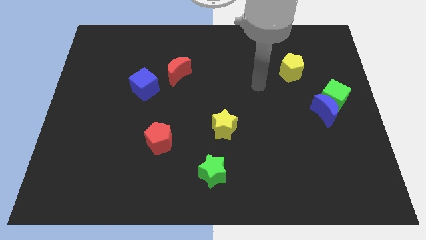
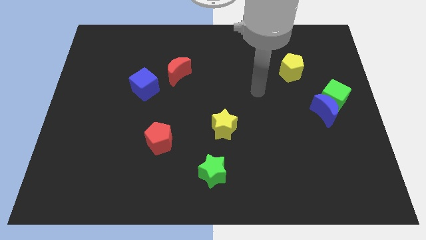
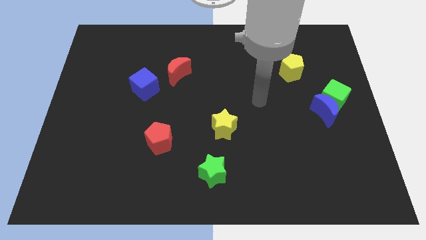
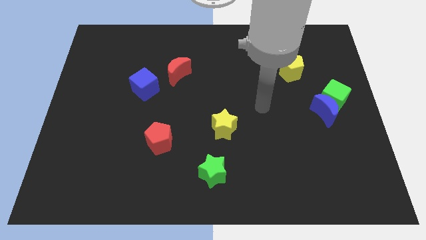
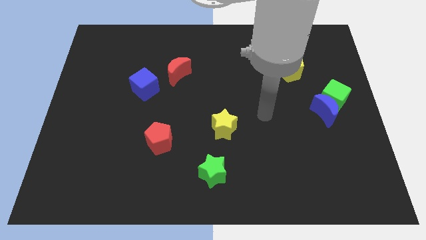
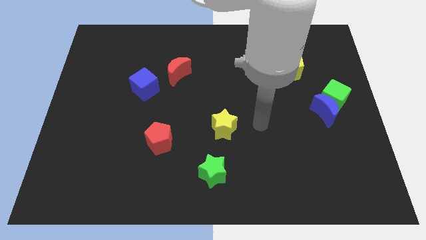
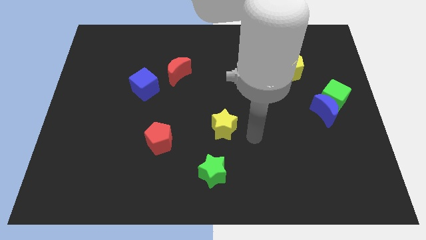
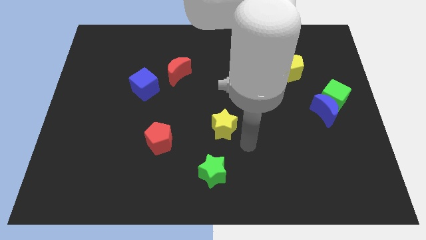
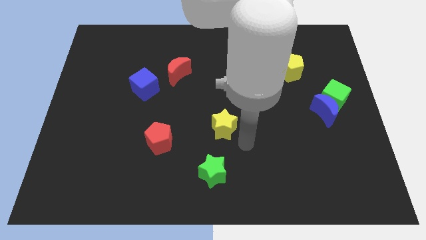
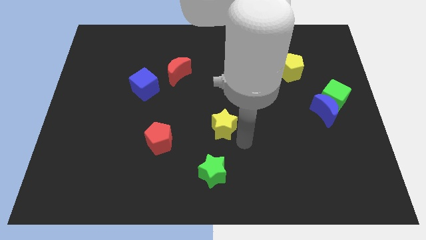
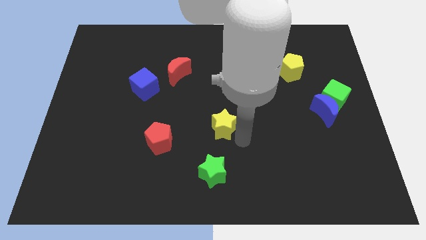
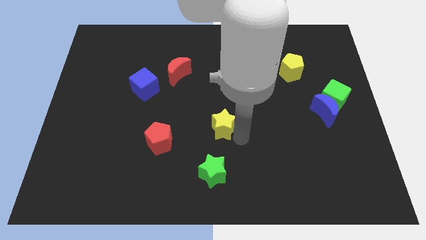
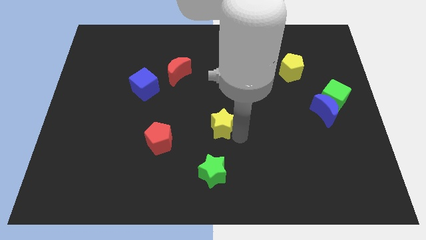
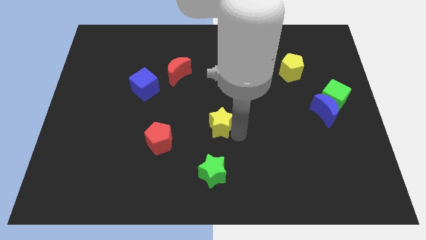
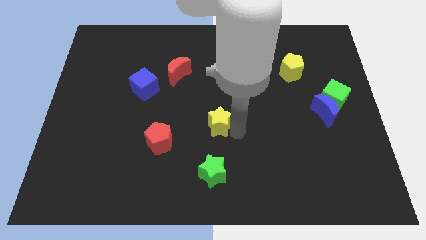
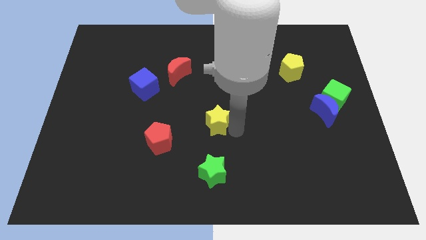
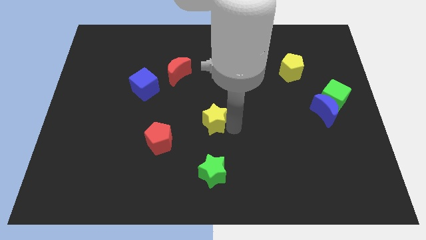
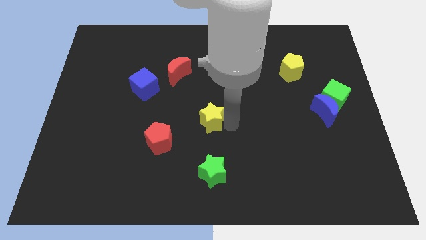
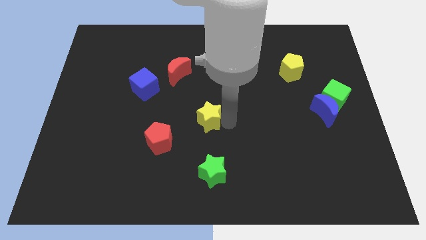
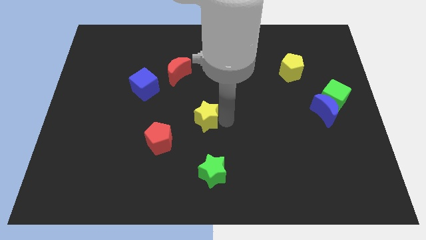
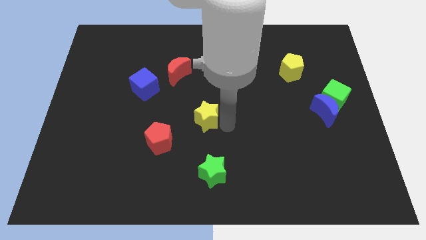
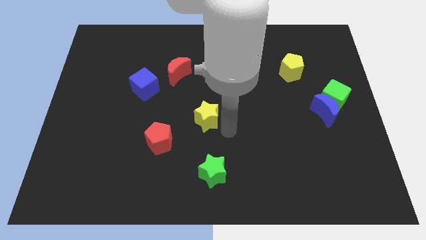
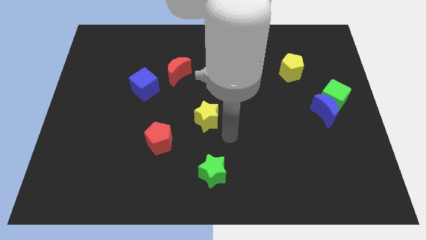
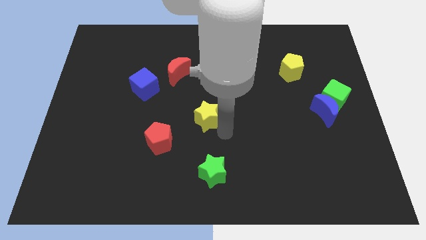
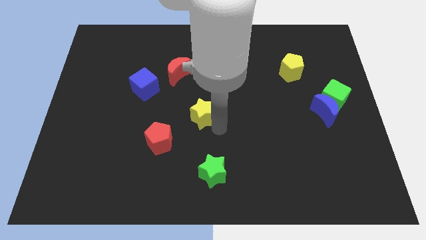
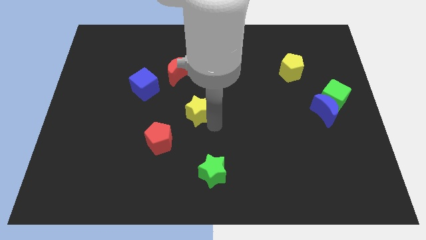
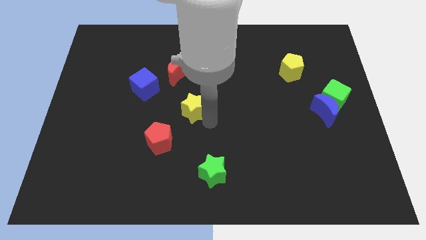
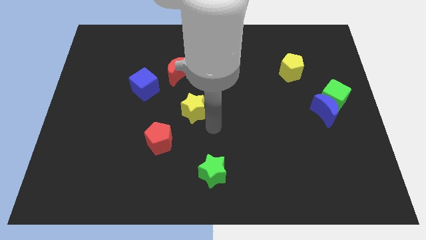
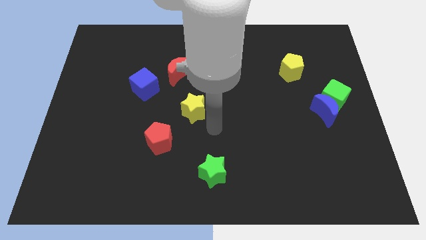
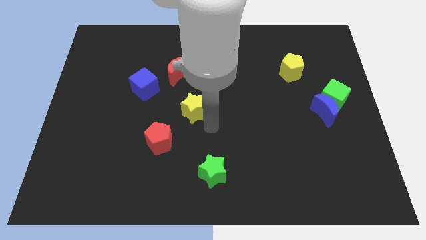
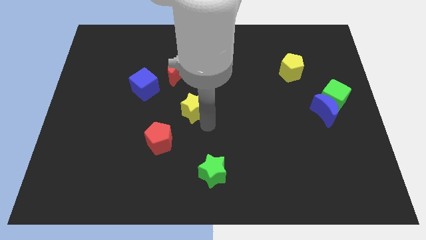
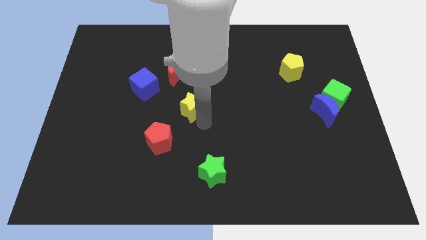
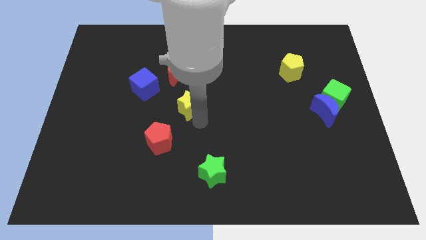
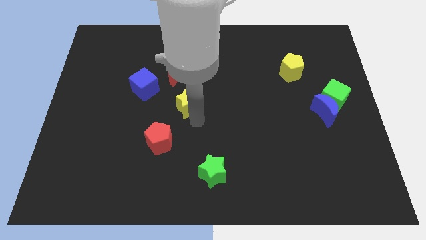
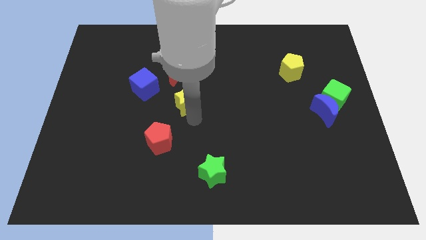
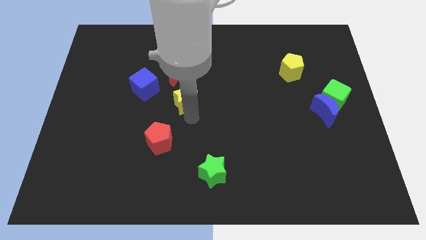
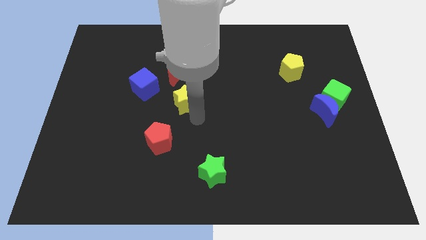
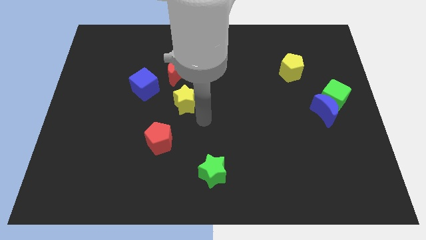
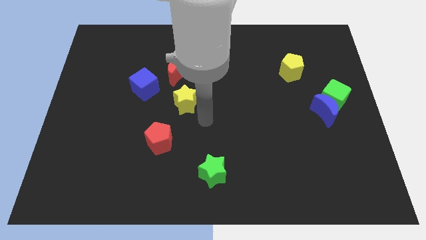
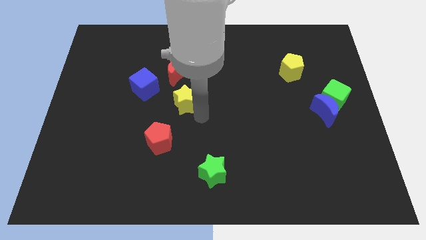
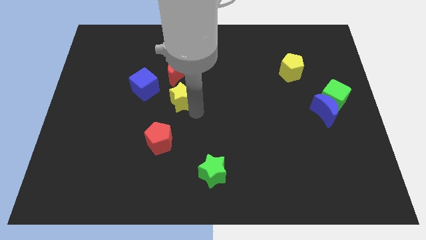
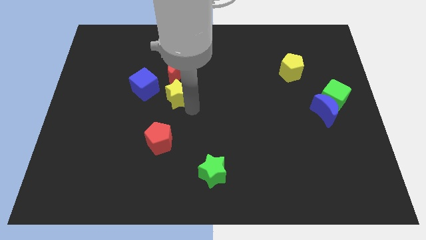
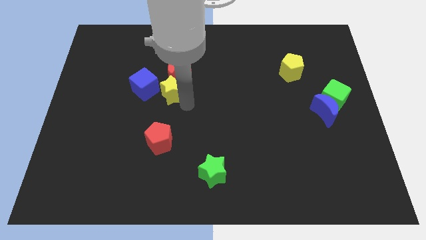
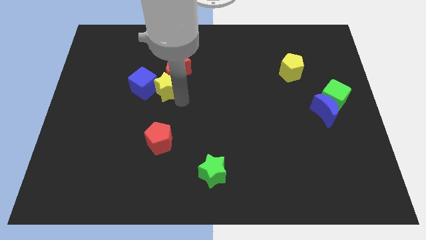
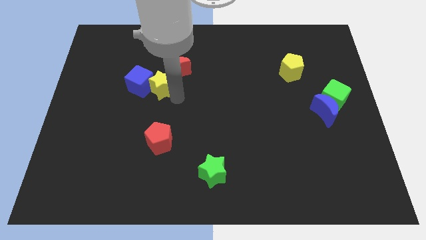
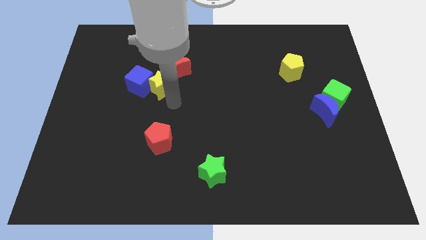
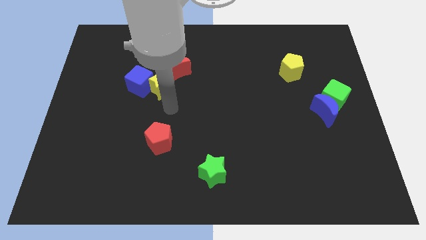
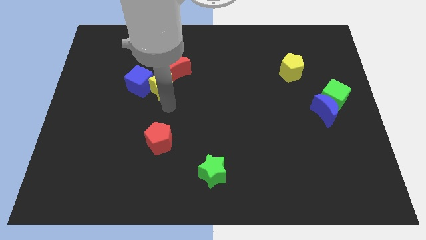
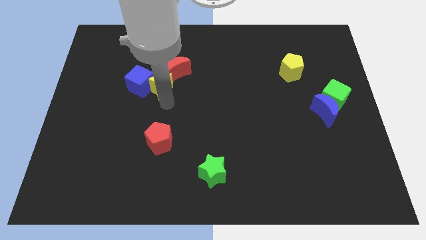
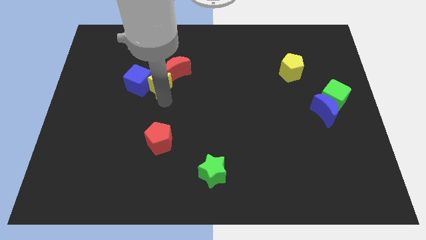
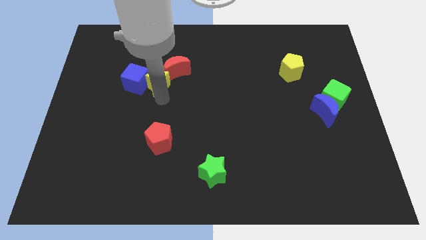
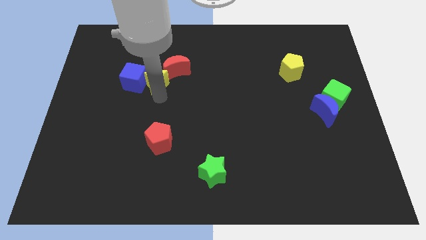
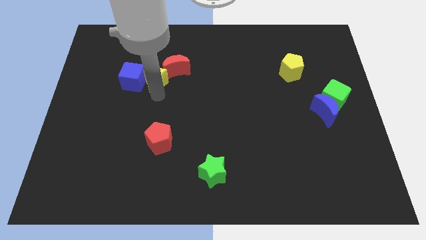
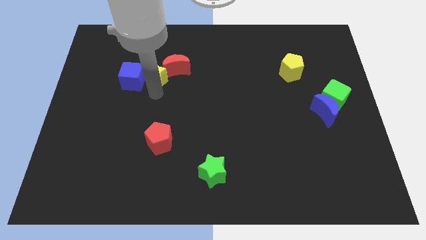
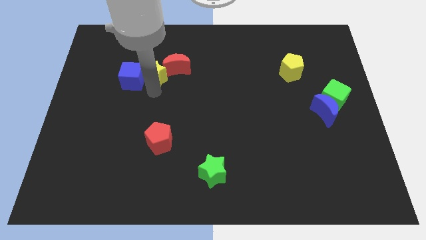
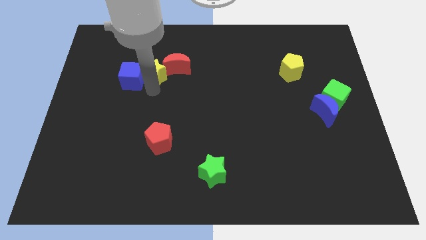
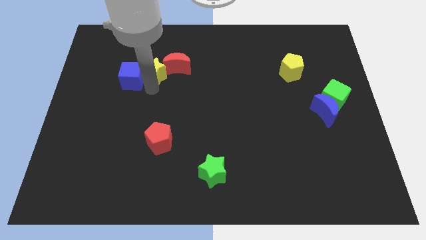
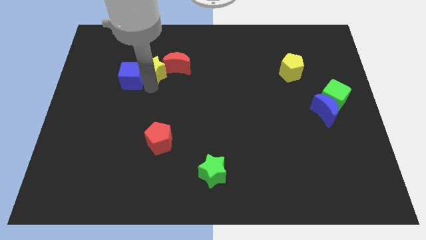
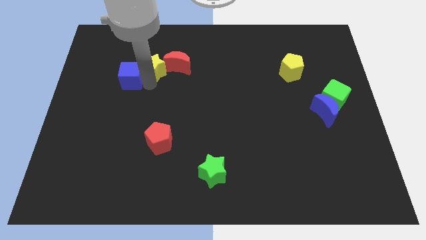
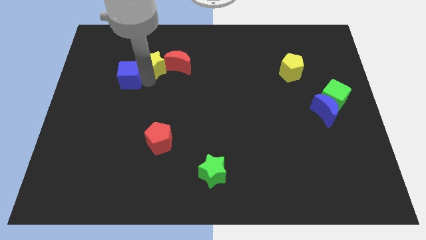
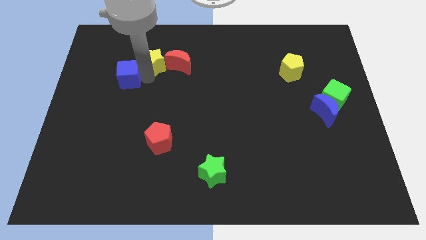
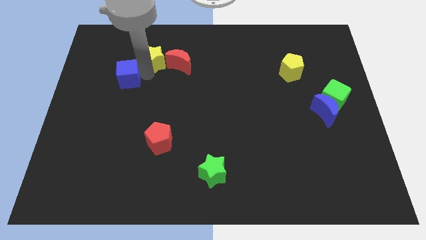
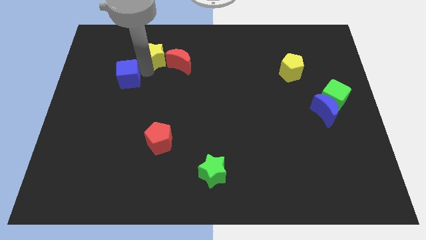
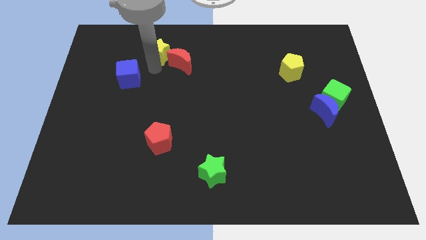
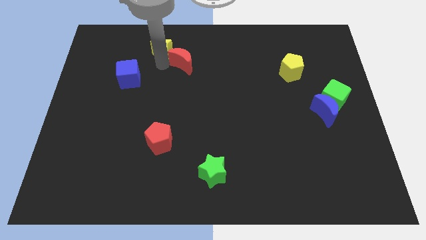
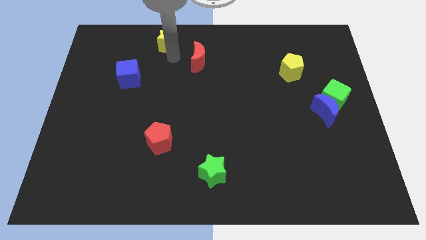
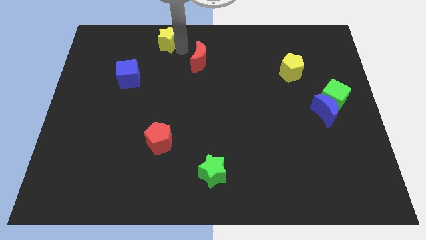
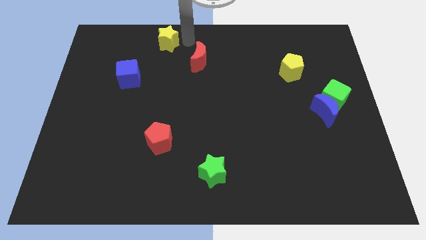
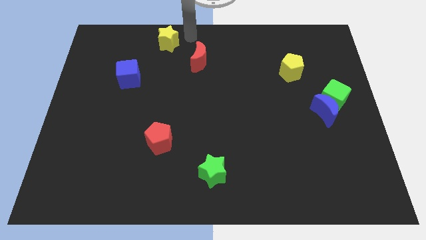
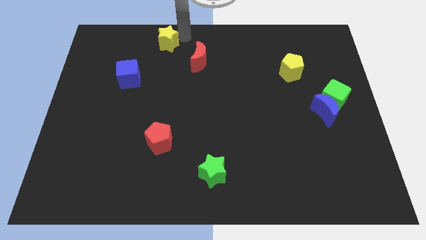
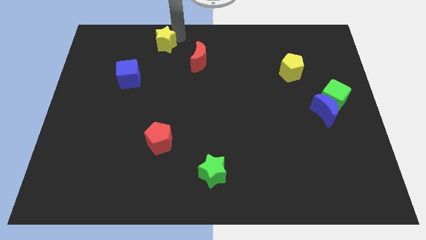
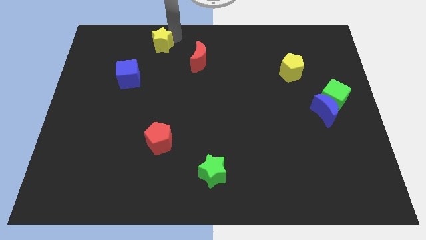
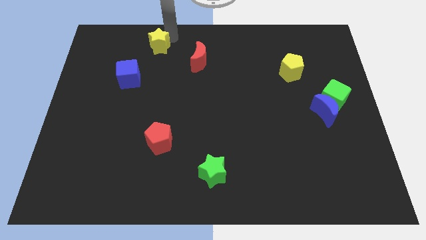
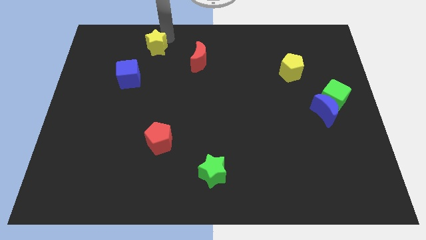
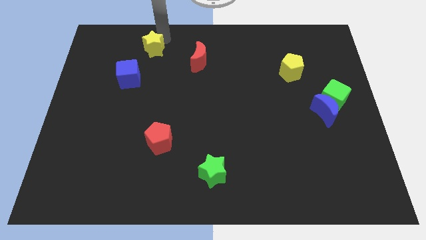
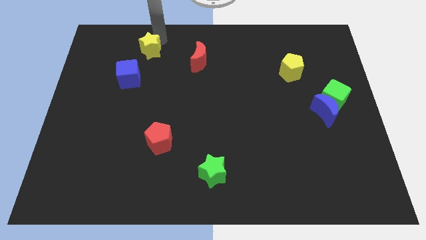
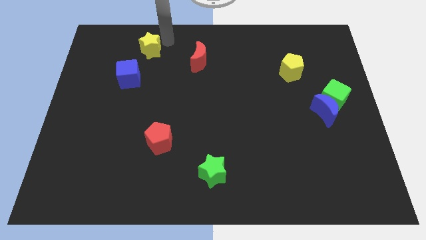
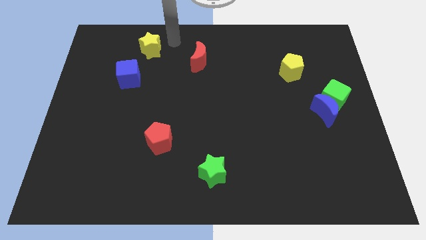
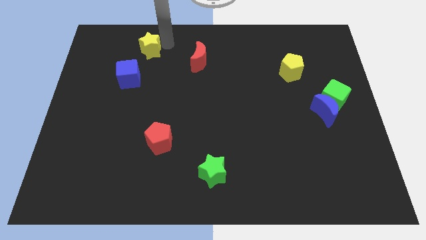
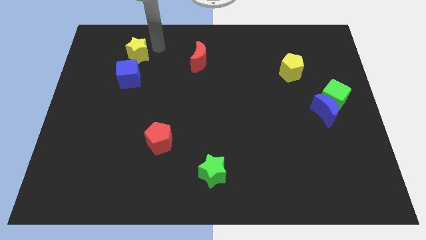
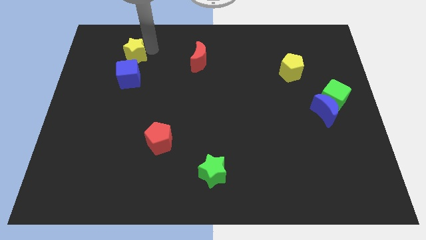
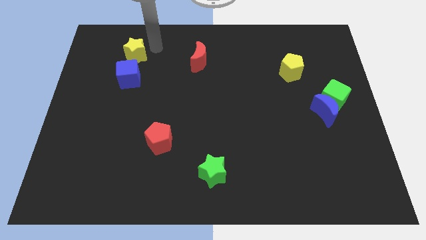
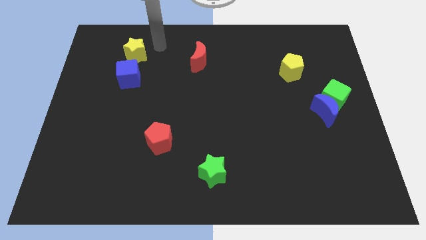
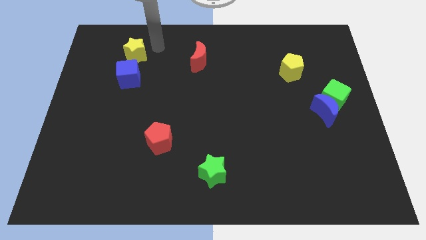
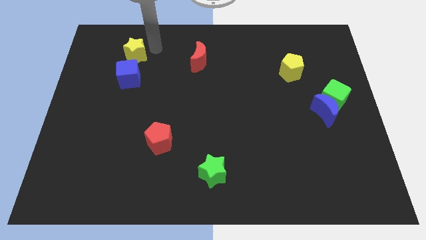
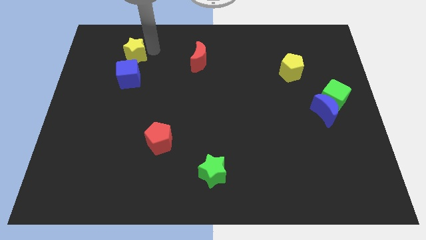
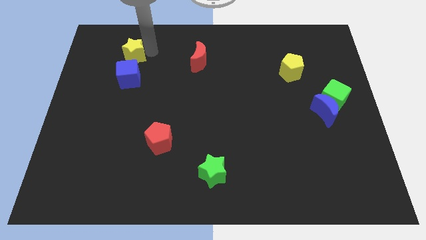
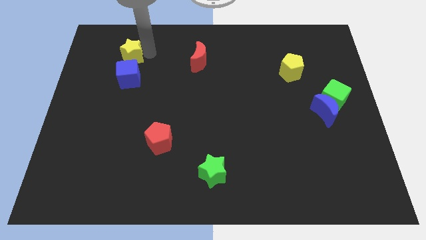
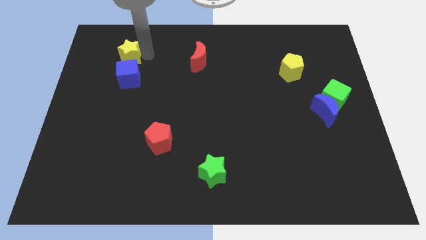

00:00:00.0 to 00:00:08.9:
push the yellow star to the top left side of the blue cube
